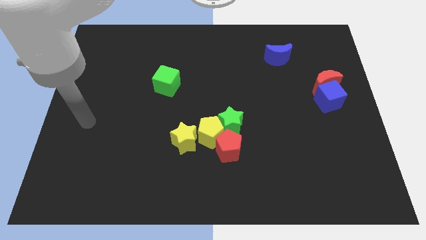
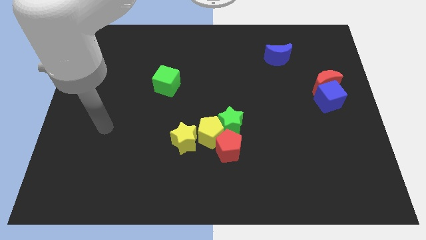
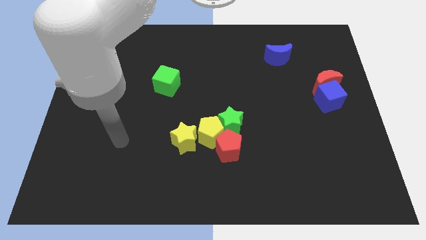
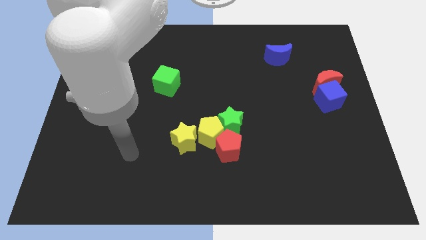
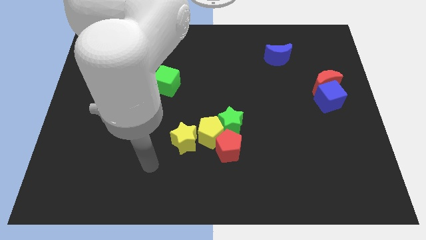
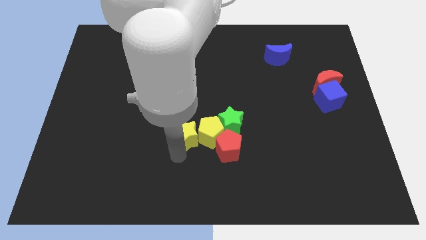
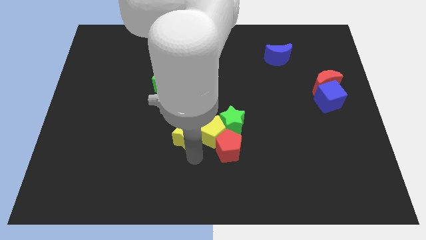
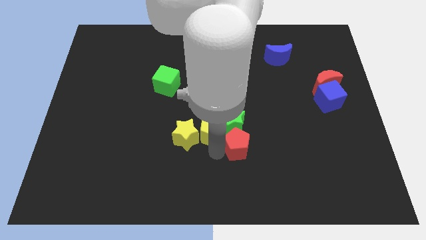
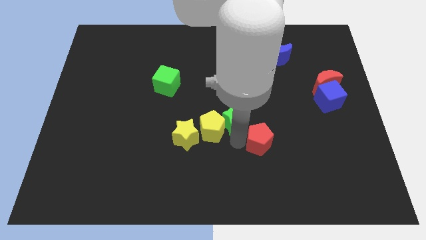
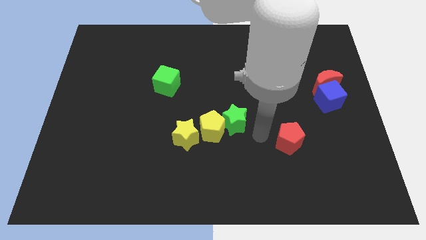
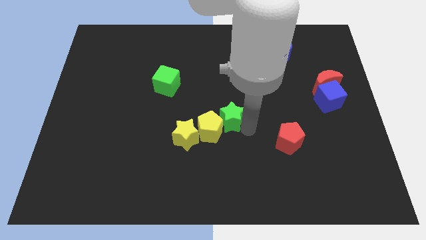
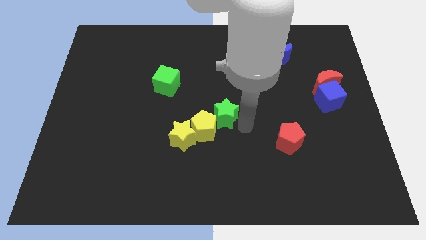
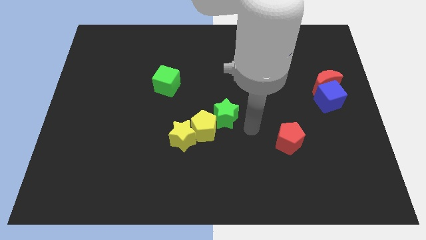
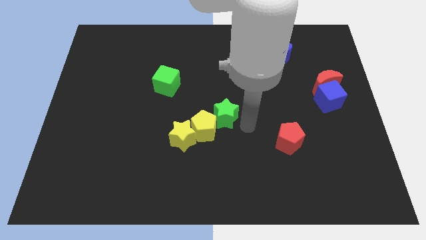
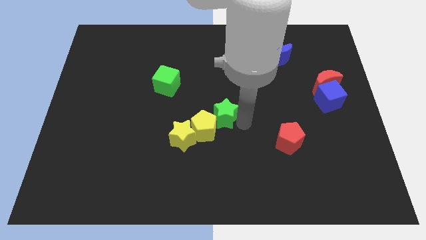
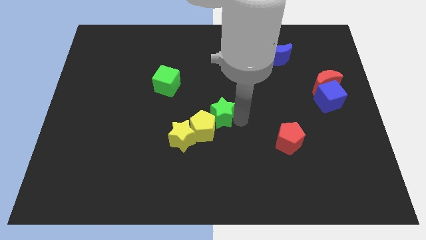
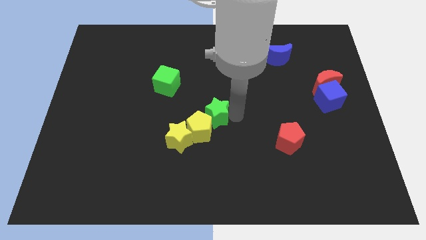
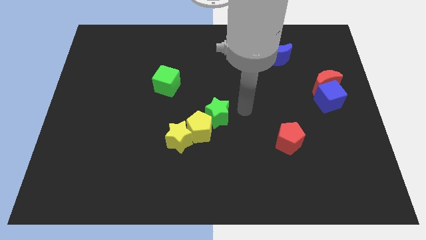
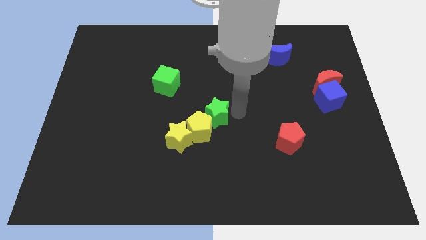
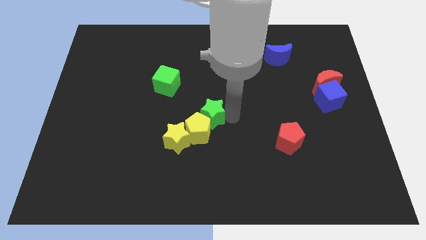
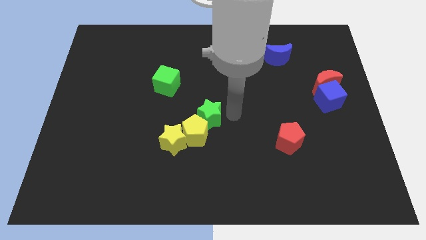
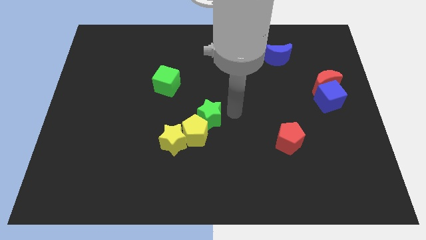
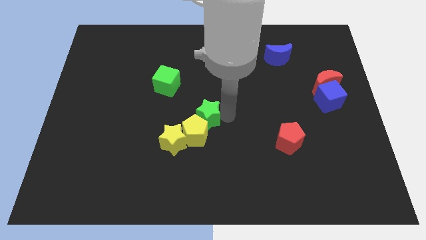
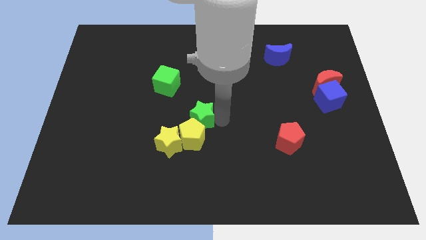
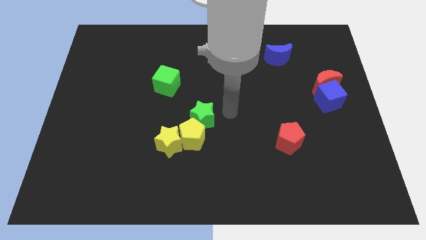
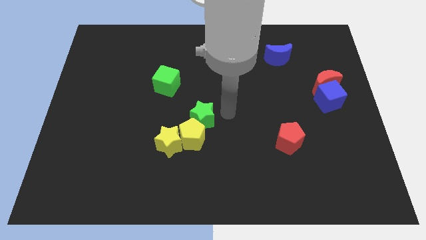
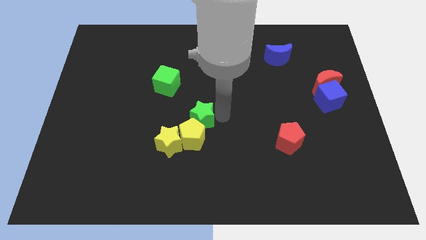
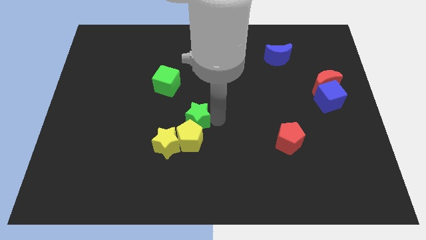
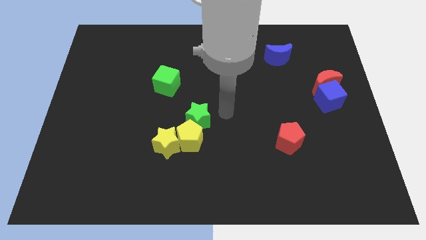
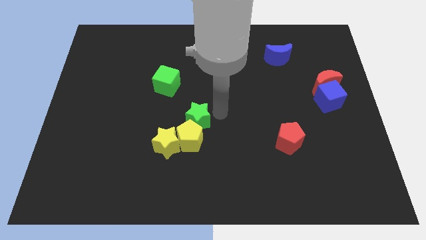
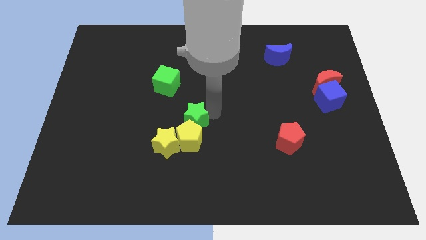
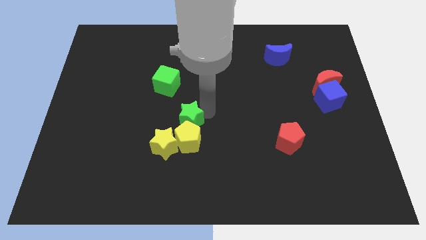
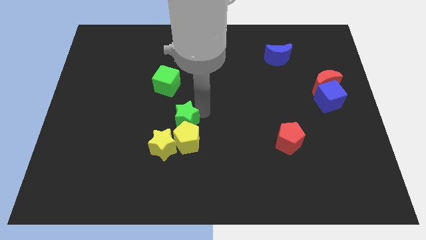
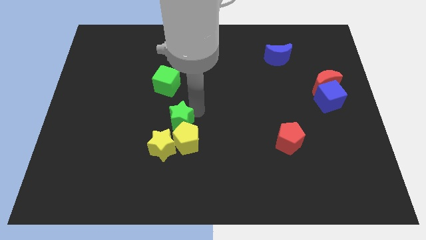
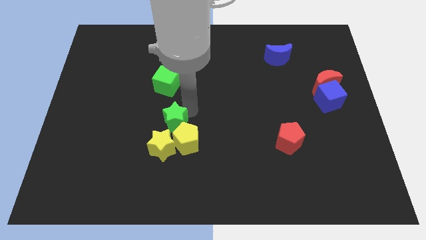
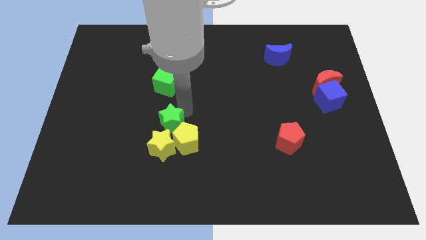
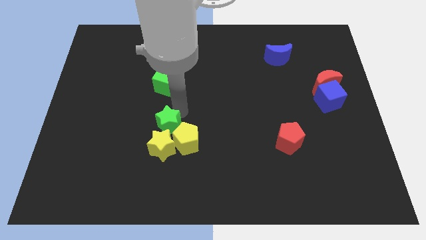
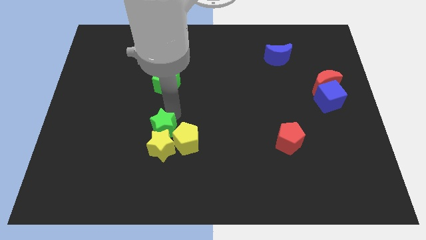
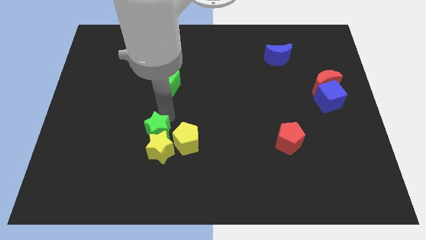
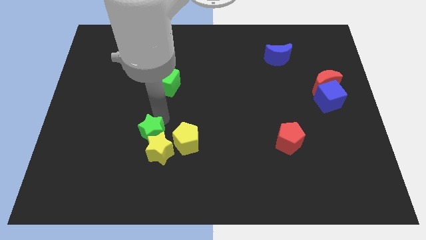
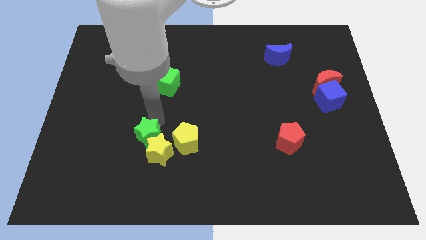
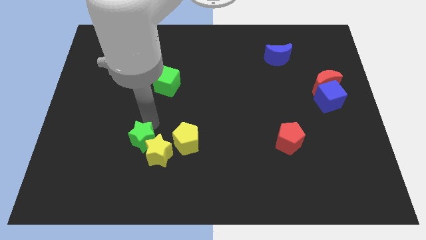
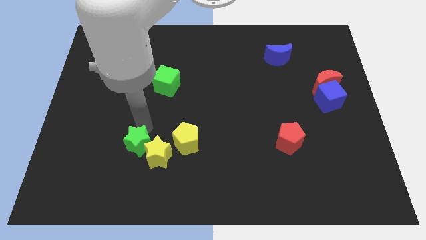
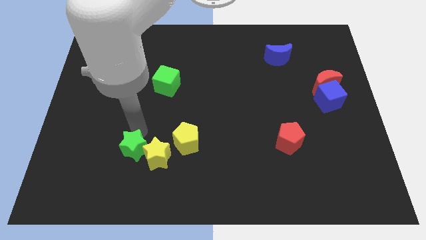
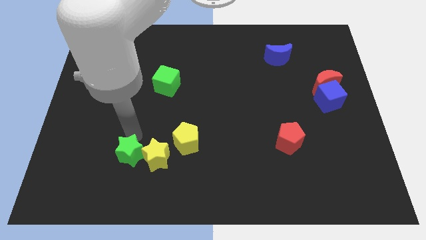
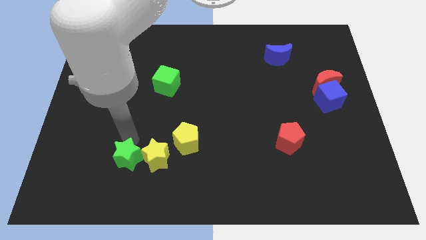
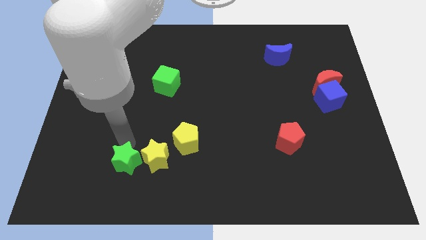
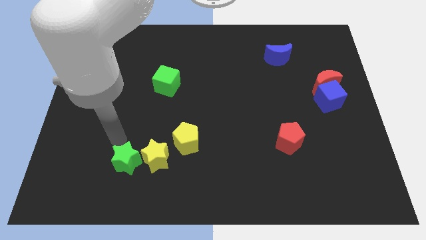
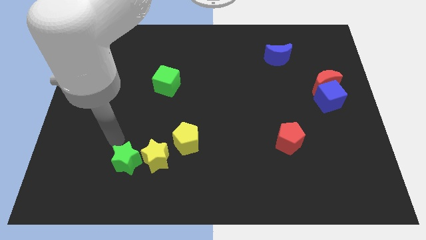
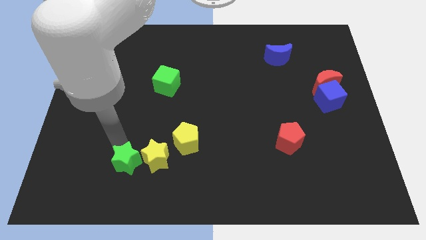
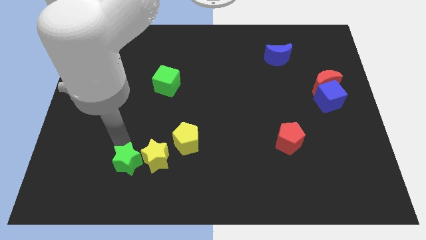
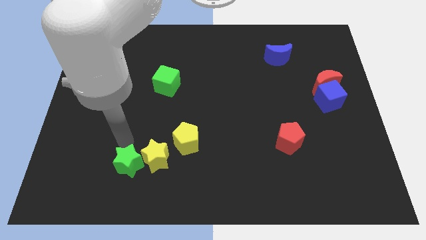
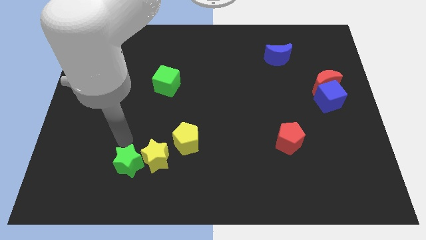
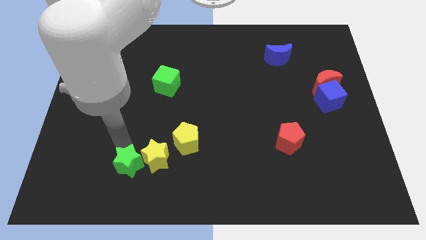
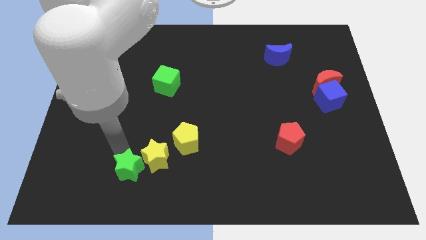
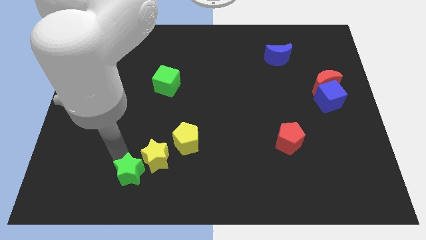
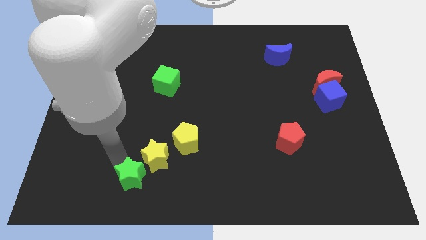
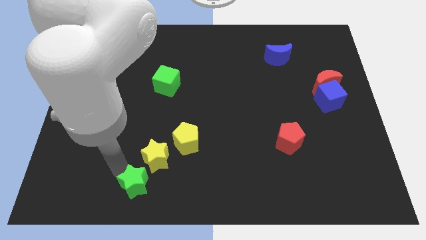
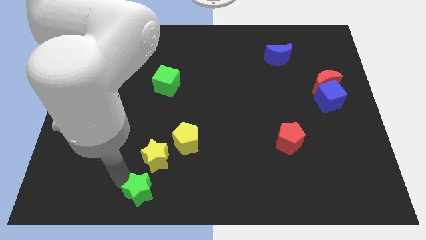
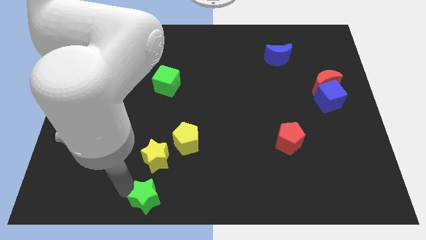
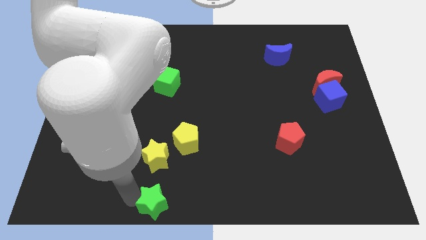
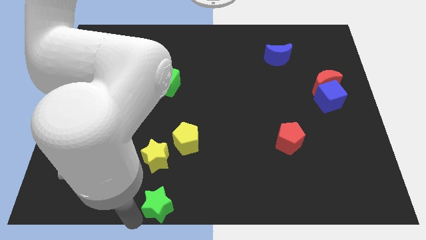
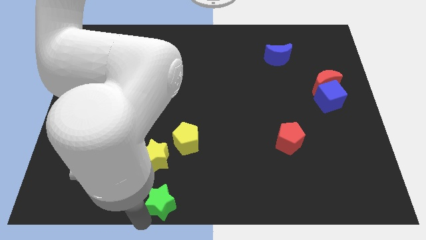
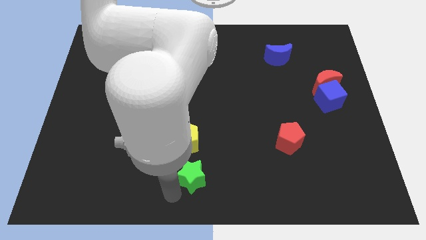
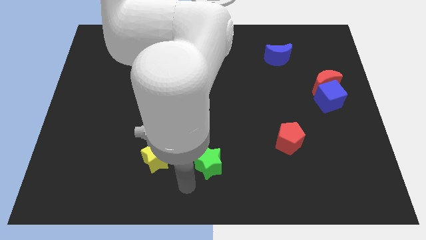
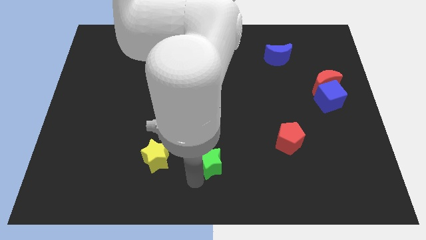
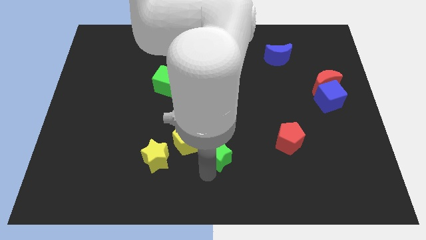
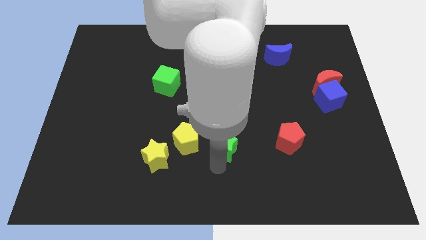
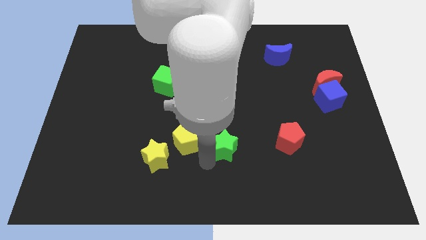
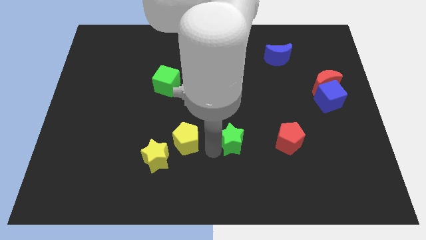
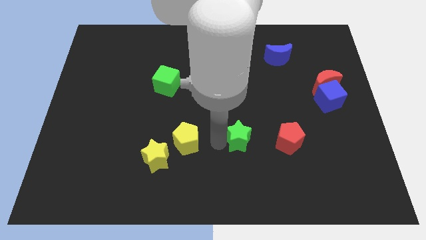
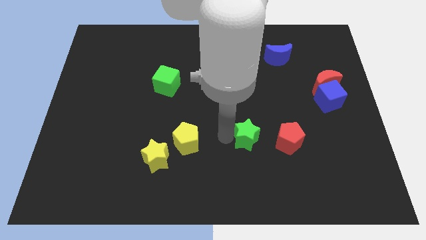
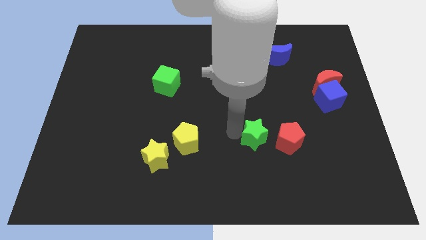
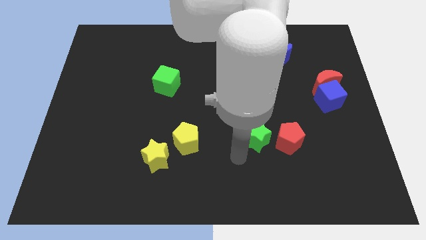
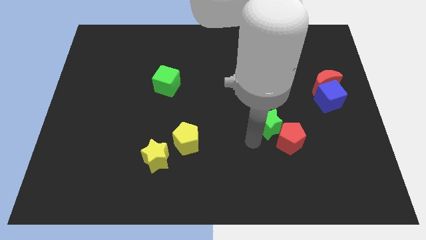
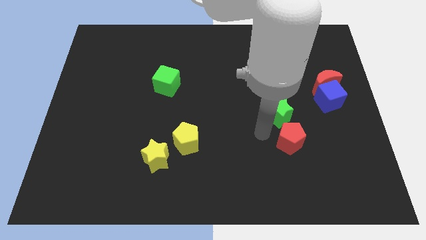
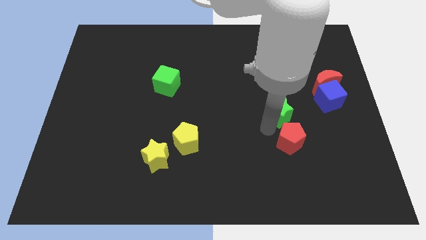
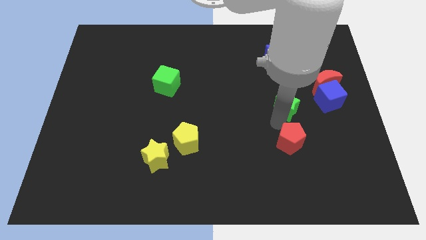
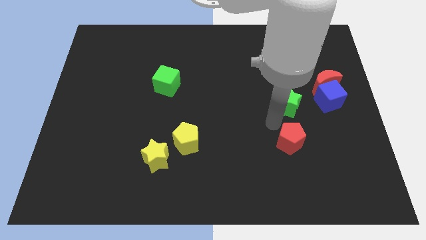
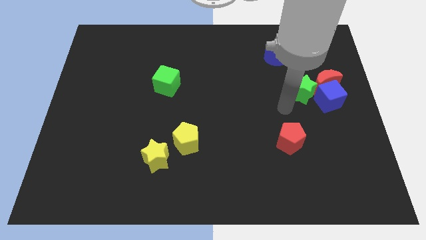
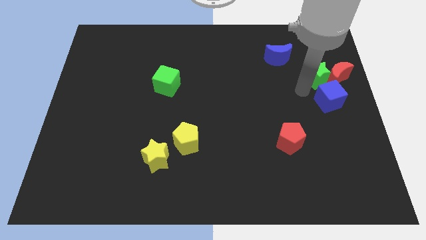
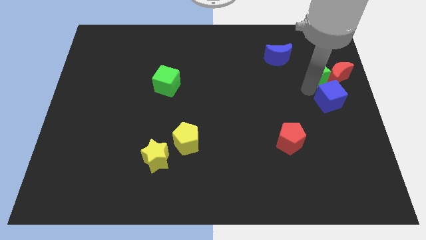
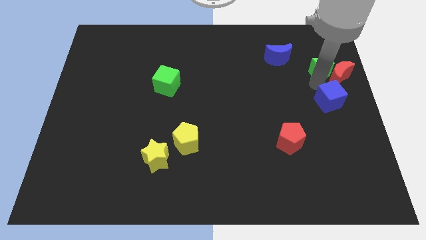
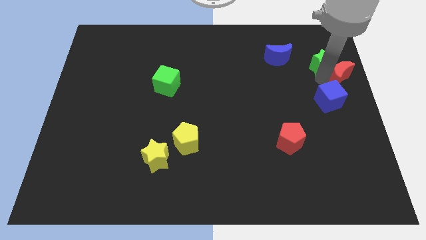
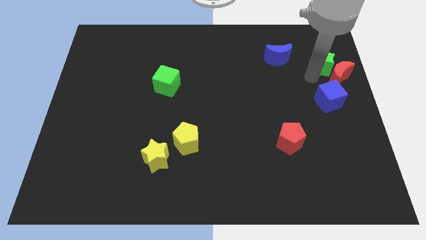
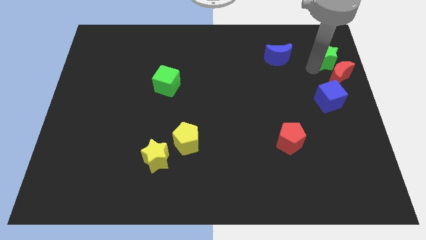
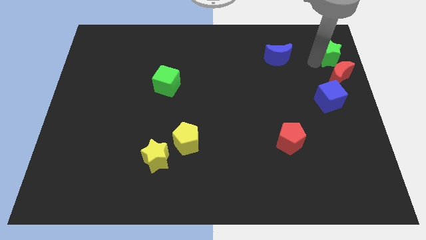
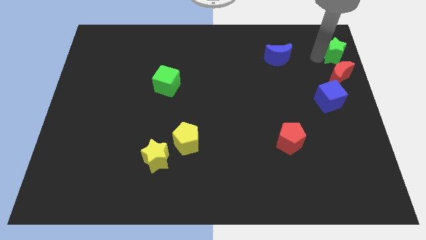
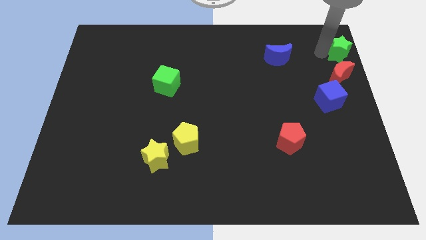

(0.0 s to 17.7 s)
slide the green star to the top right
